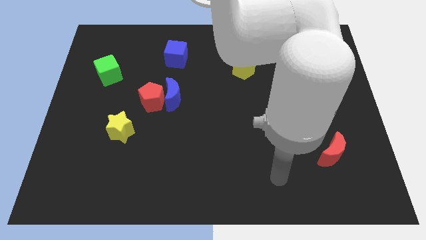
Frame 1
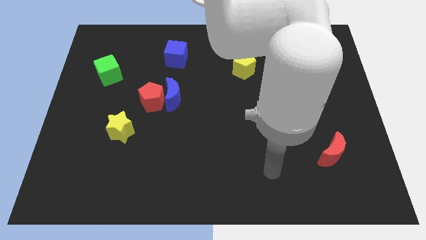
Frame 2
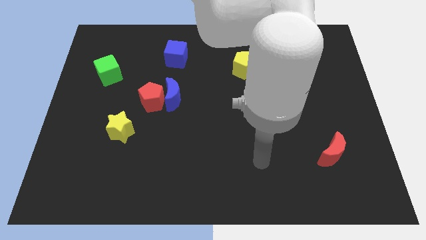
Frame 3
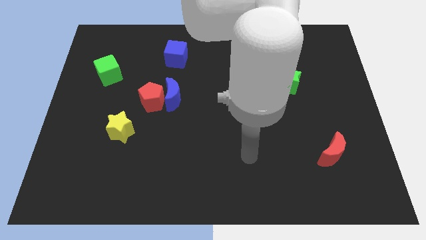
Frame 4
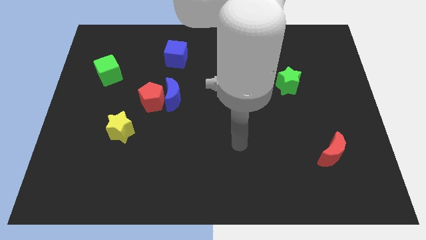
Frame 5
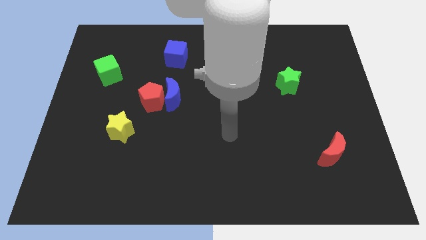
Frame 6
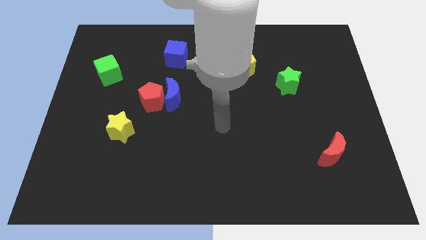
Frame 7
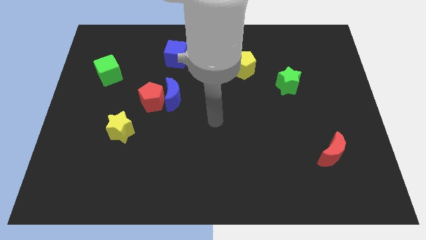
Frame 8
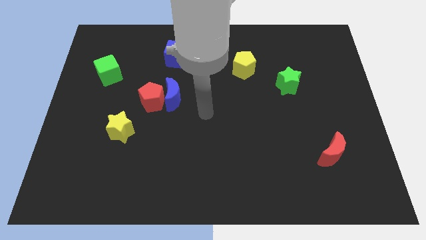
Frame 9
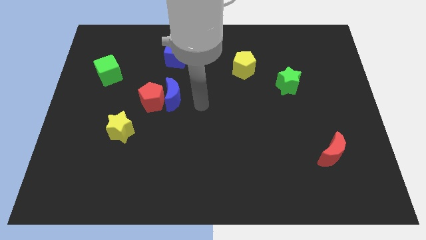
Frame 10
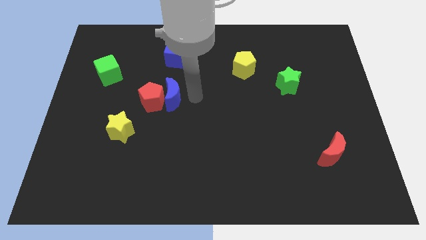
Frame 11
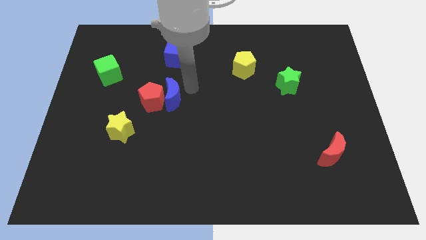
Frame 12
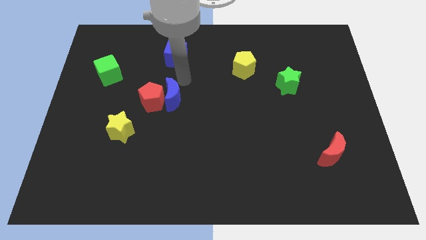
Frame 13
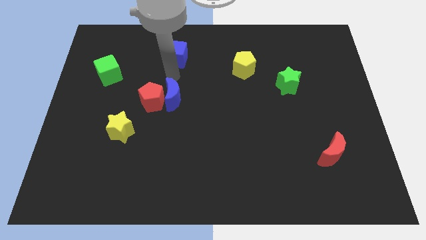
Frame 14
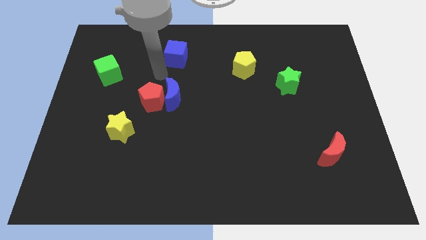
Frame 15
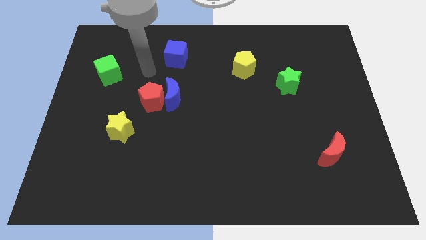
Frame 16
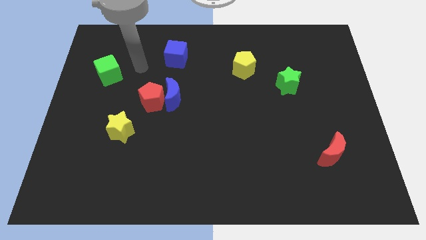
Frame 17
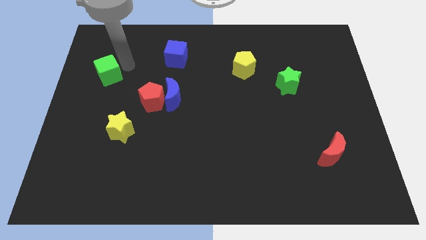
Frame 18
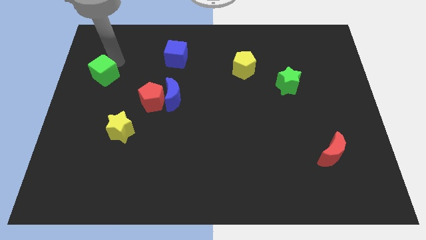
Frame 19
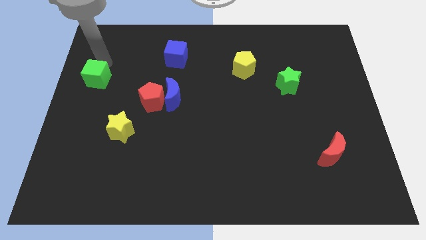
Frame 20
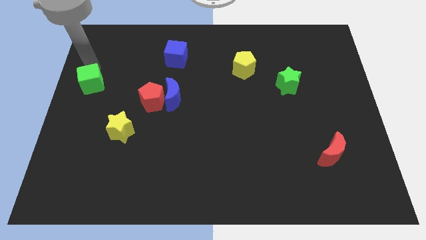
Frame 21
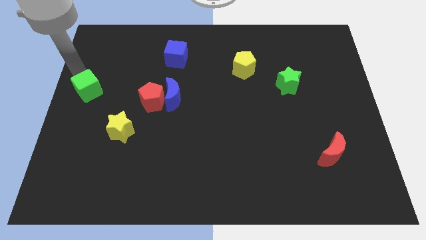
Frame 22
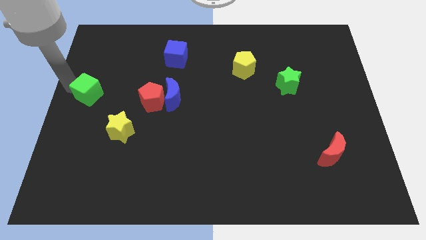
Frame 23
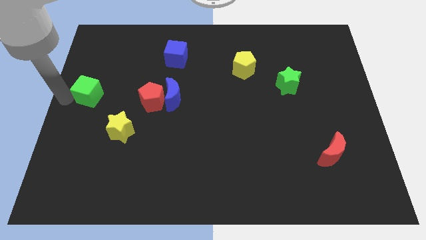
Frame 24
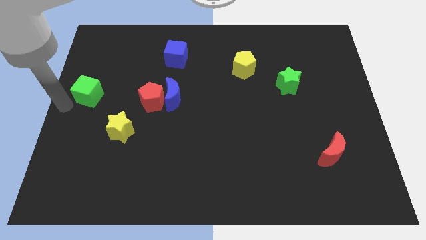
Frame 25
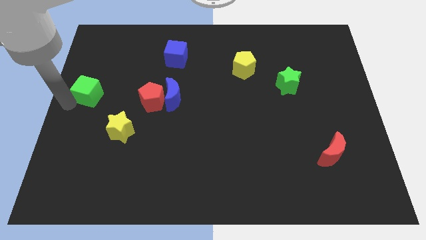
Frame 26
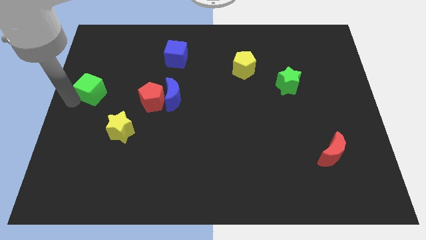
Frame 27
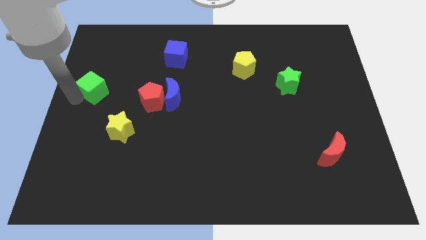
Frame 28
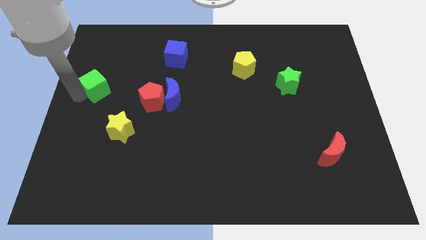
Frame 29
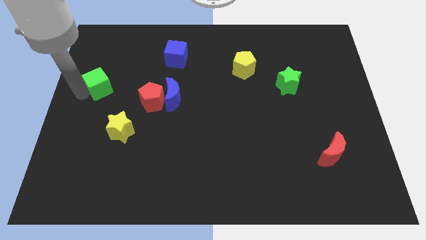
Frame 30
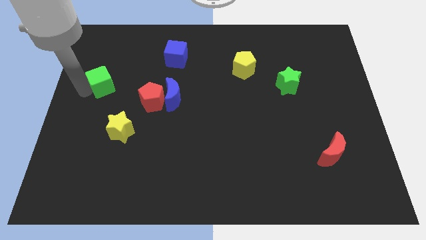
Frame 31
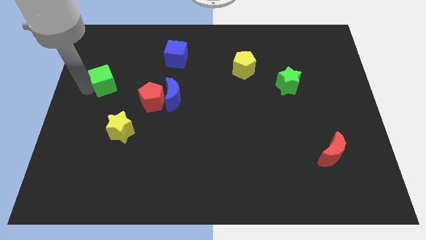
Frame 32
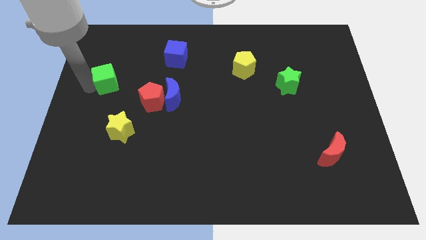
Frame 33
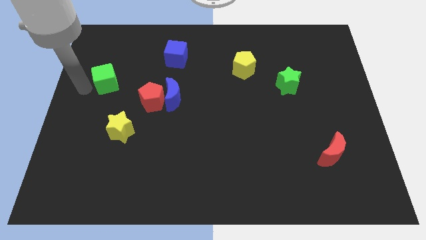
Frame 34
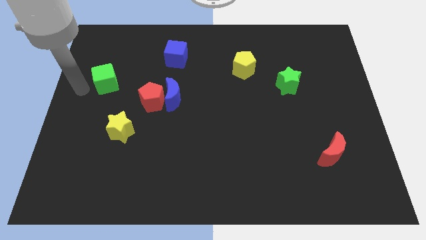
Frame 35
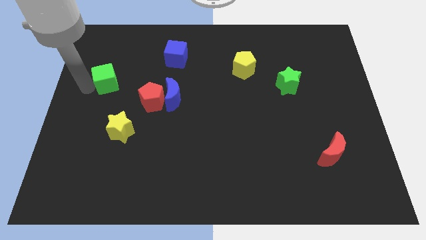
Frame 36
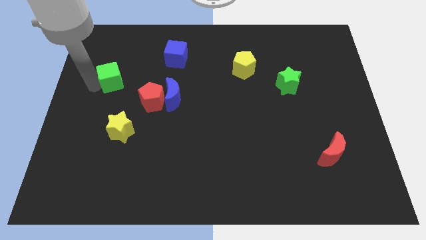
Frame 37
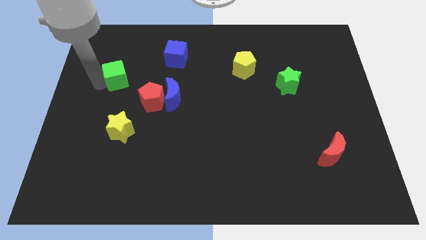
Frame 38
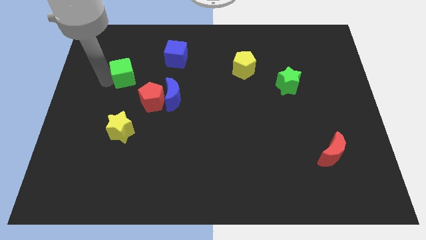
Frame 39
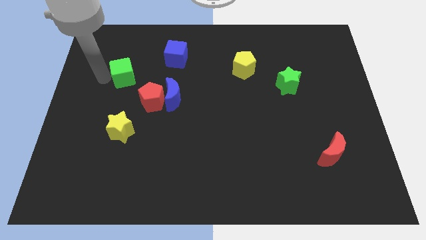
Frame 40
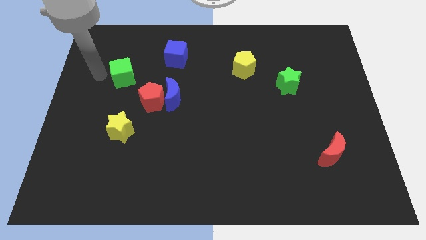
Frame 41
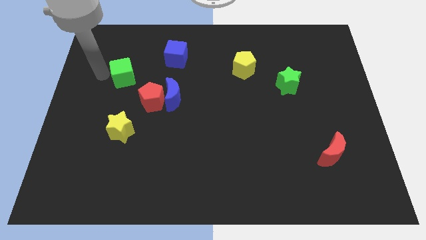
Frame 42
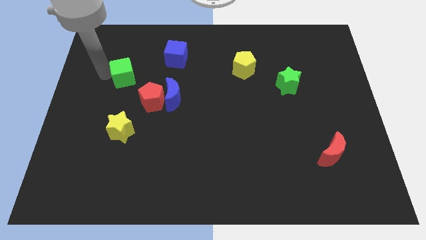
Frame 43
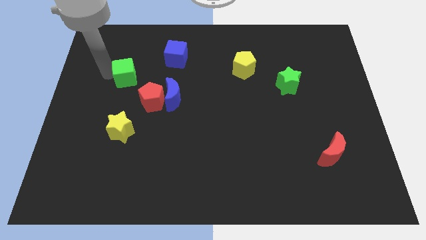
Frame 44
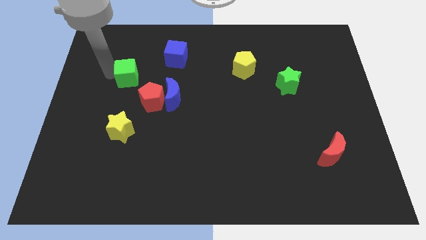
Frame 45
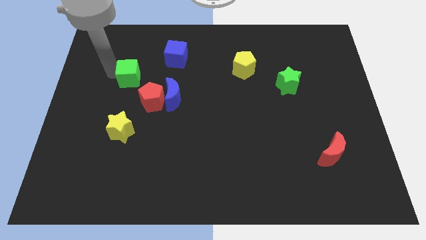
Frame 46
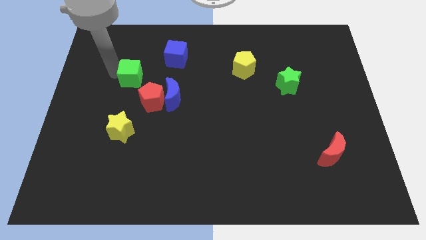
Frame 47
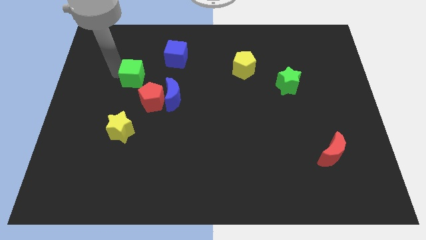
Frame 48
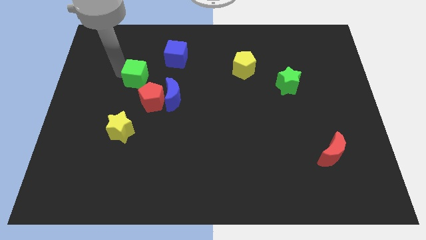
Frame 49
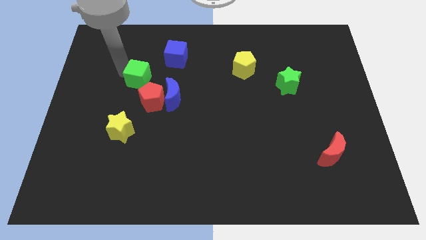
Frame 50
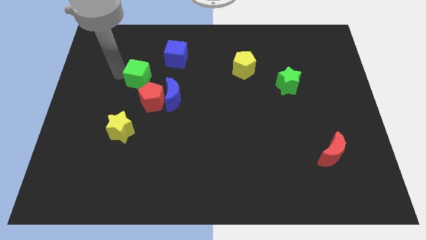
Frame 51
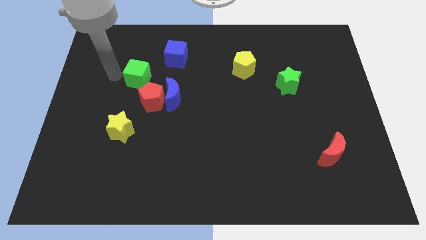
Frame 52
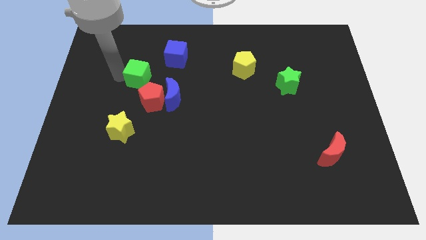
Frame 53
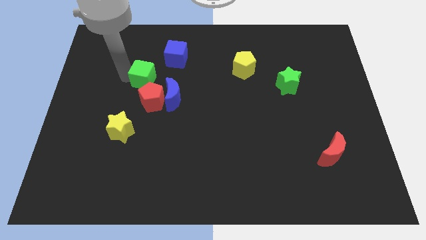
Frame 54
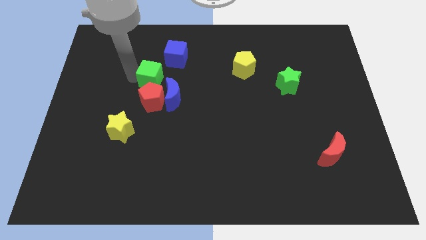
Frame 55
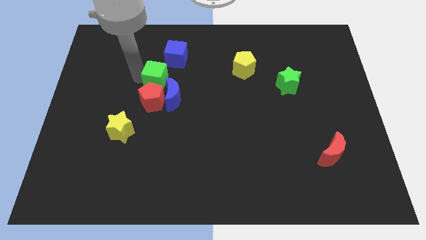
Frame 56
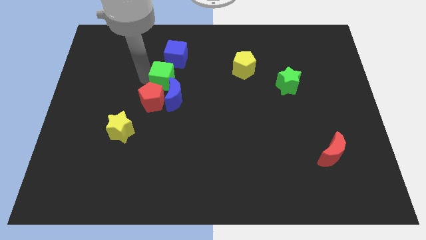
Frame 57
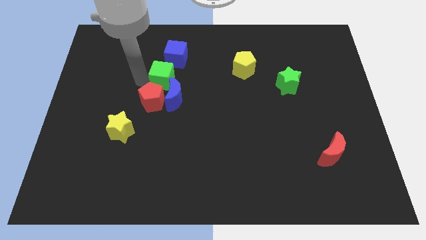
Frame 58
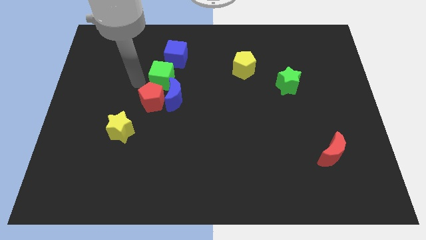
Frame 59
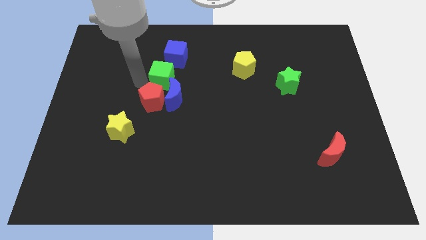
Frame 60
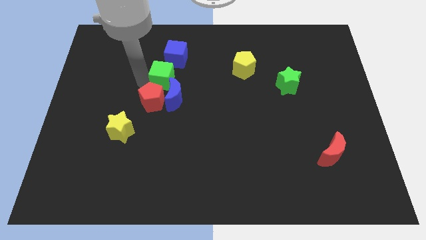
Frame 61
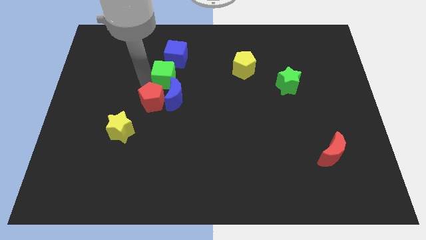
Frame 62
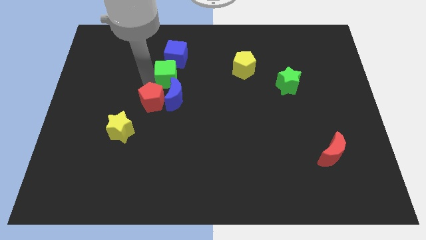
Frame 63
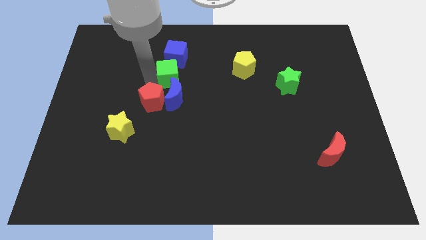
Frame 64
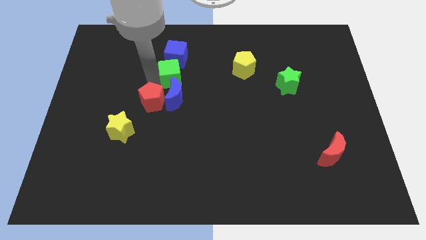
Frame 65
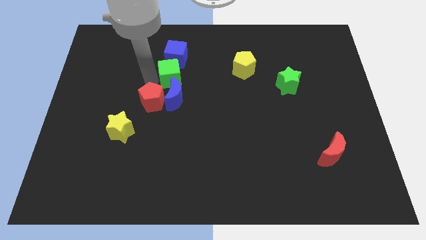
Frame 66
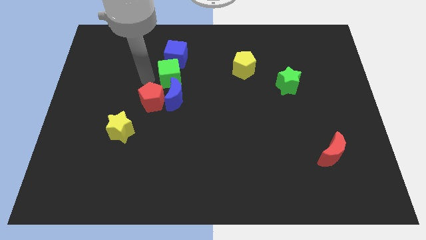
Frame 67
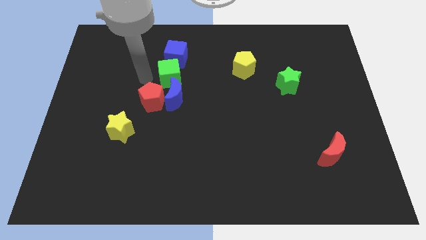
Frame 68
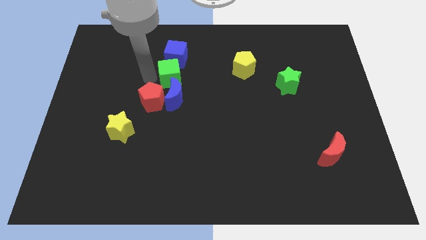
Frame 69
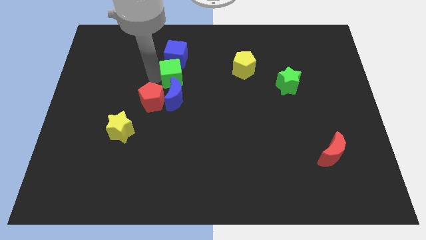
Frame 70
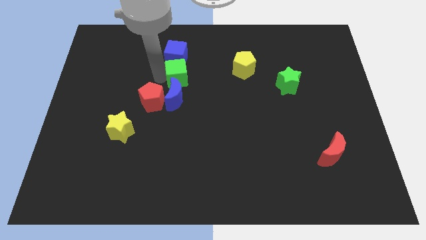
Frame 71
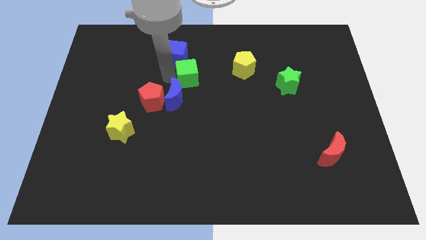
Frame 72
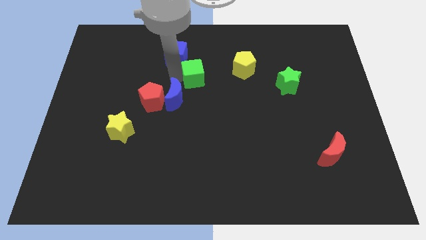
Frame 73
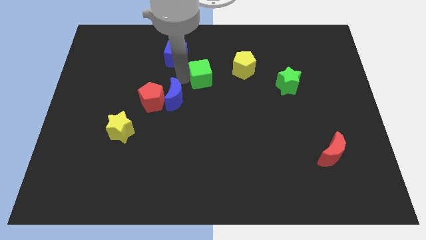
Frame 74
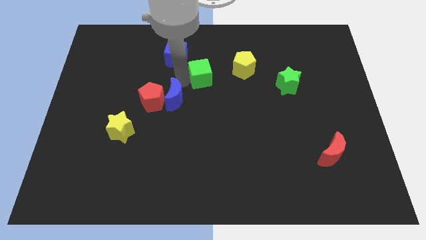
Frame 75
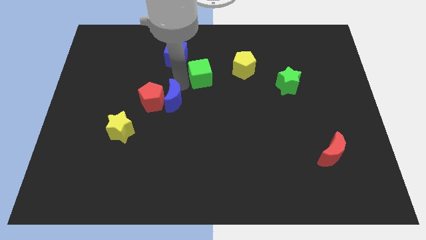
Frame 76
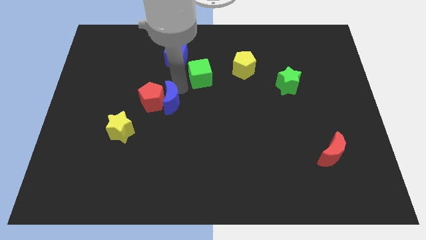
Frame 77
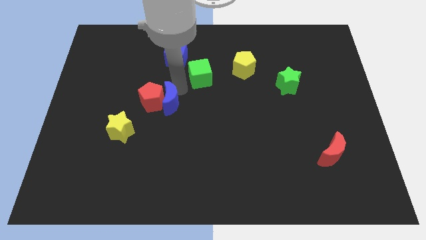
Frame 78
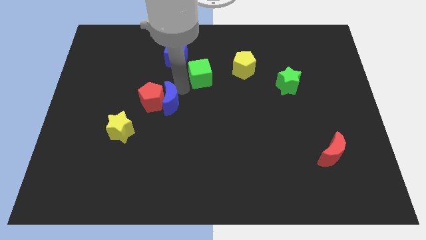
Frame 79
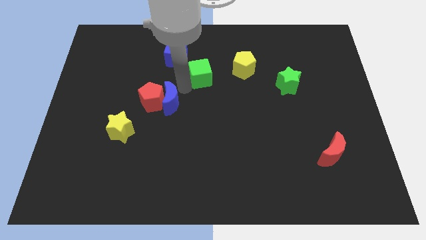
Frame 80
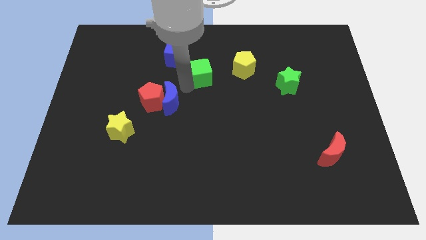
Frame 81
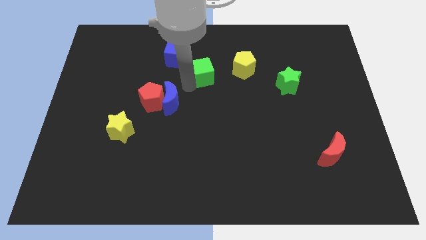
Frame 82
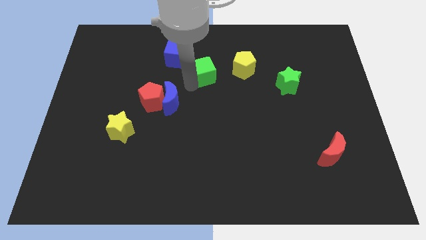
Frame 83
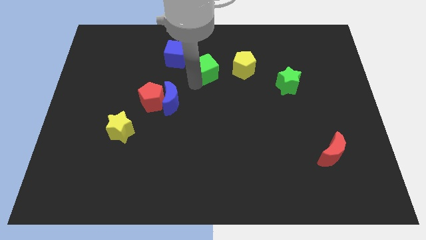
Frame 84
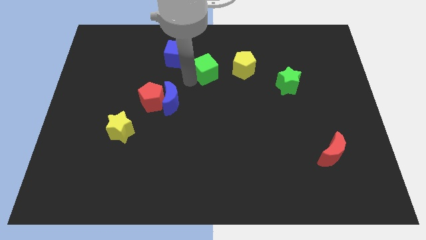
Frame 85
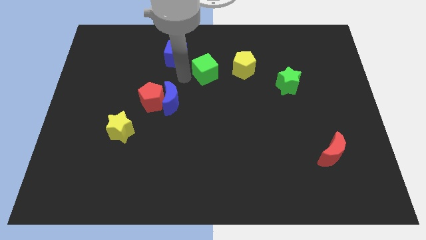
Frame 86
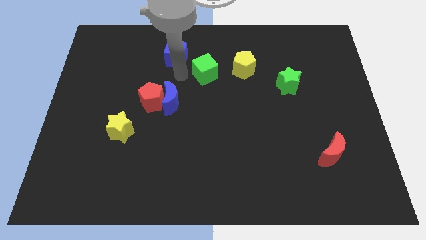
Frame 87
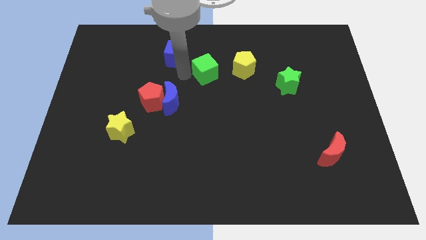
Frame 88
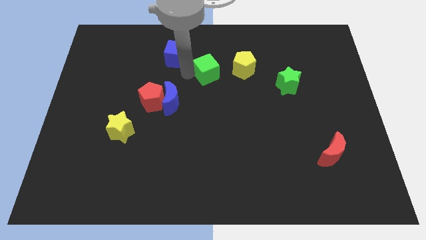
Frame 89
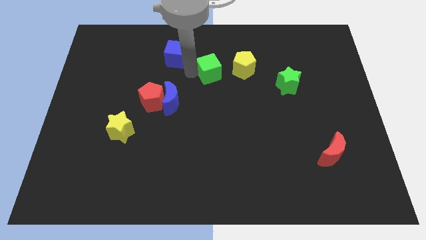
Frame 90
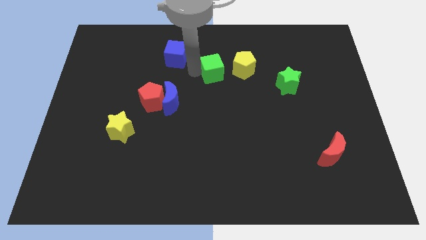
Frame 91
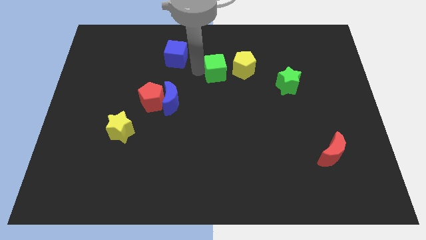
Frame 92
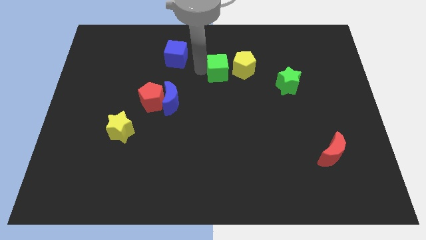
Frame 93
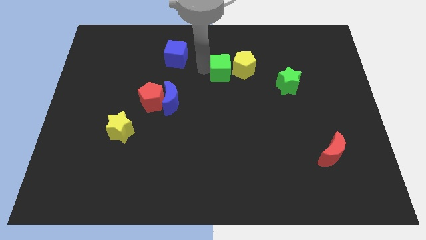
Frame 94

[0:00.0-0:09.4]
slide the green cube next to the yellow pentagon
